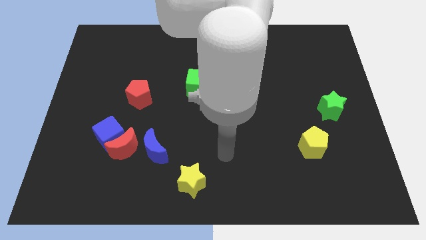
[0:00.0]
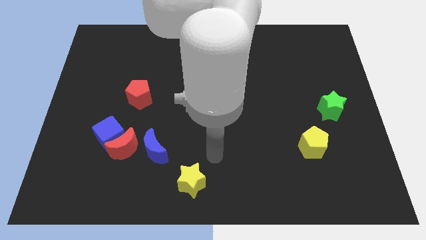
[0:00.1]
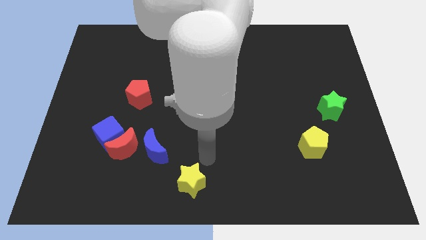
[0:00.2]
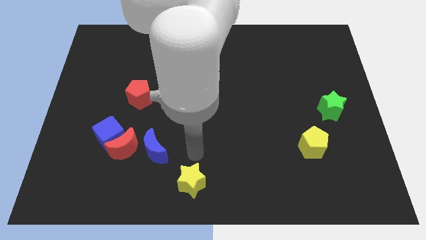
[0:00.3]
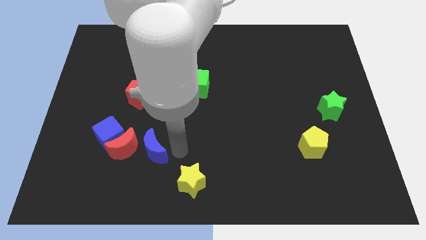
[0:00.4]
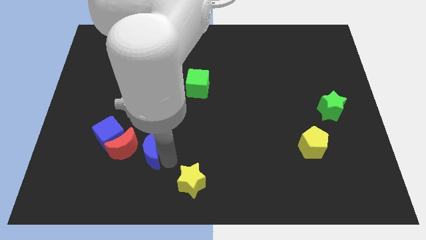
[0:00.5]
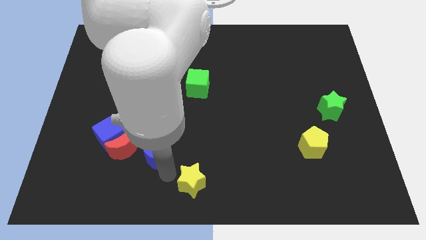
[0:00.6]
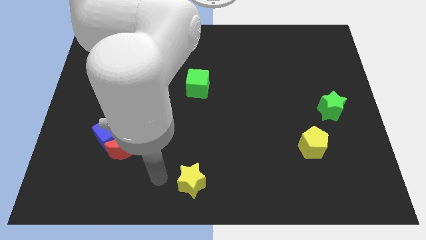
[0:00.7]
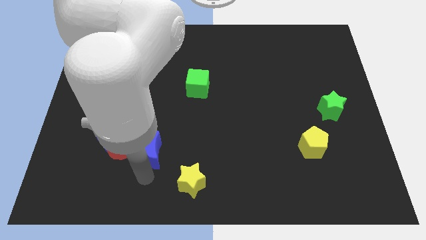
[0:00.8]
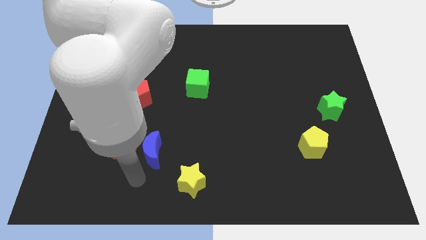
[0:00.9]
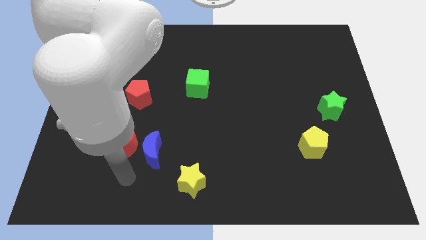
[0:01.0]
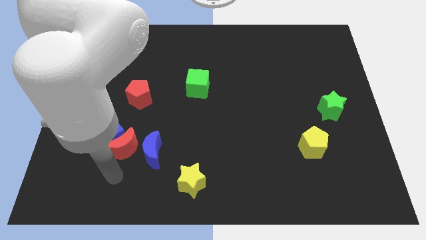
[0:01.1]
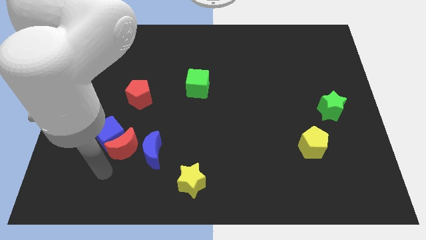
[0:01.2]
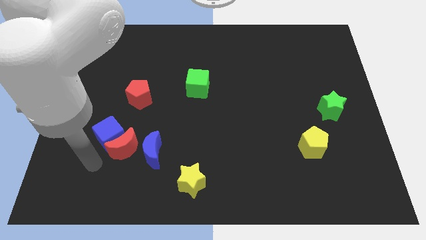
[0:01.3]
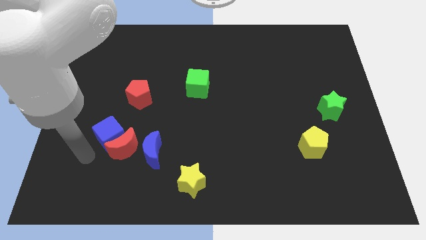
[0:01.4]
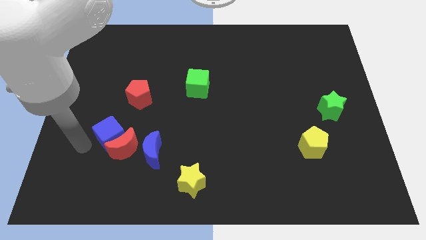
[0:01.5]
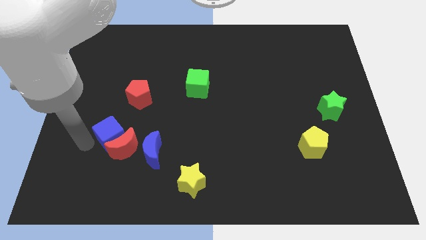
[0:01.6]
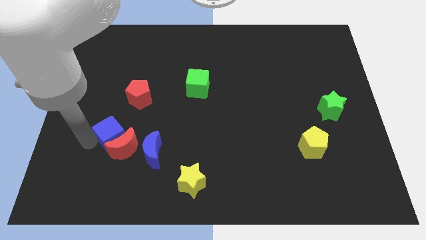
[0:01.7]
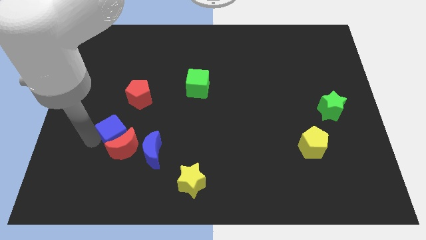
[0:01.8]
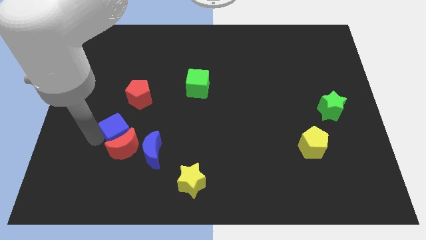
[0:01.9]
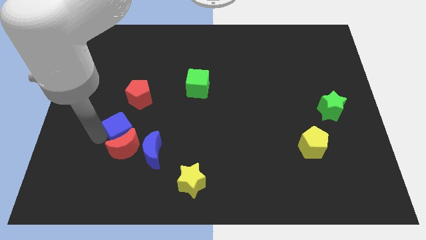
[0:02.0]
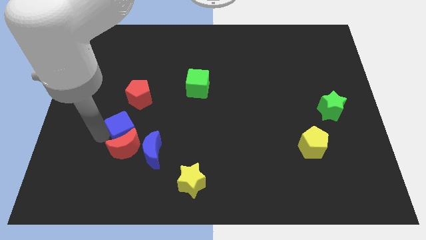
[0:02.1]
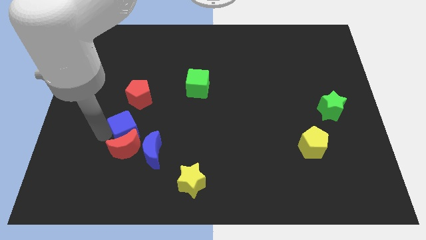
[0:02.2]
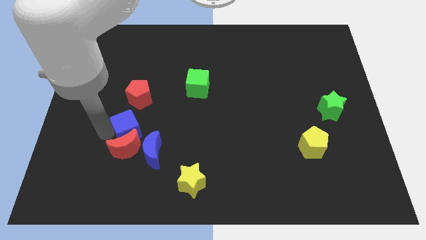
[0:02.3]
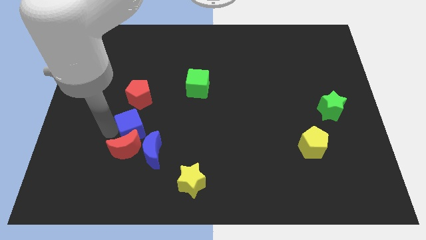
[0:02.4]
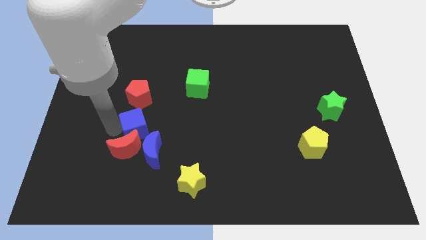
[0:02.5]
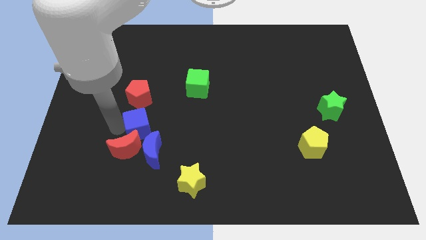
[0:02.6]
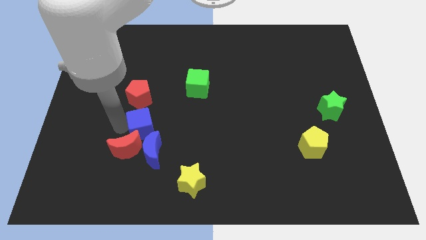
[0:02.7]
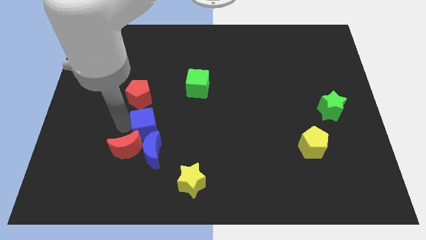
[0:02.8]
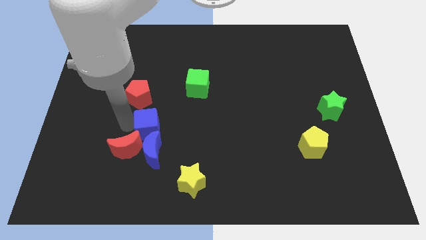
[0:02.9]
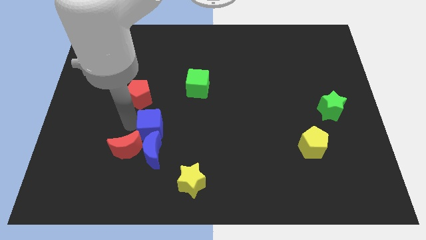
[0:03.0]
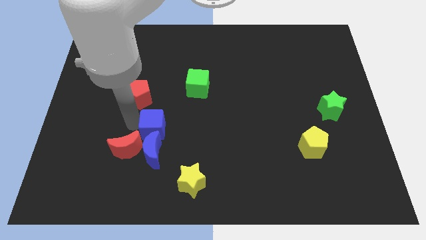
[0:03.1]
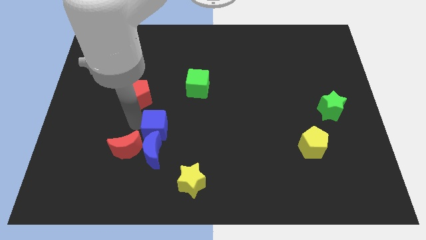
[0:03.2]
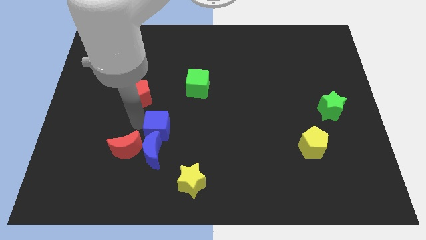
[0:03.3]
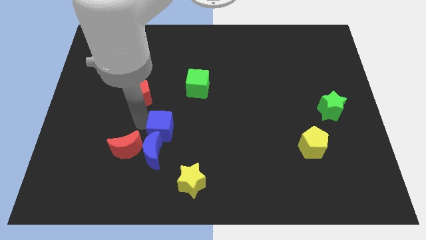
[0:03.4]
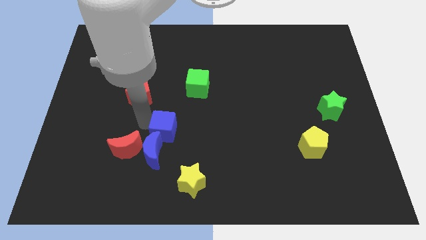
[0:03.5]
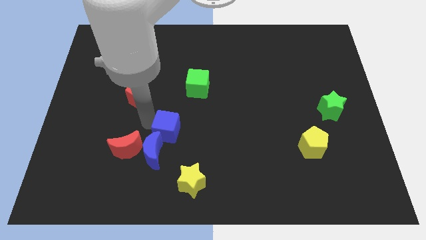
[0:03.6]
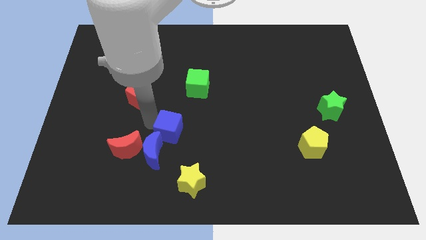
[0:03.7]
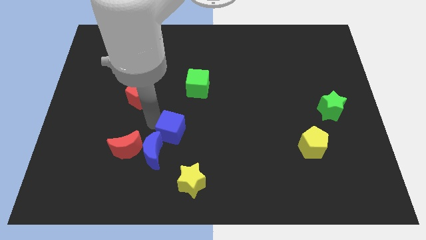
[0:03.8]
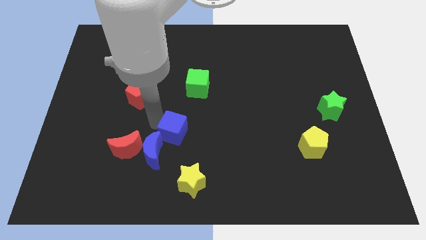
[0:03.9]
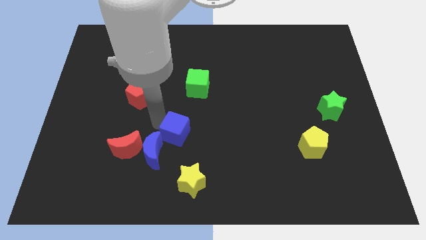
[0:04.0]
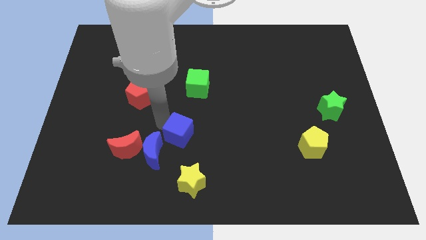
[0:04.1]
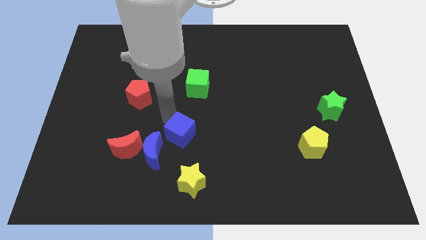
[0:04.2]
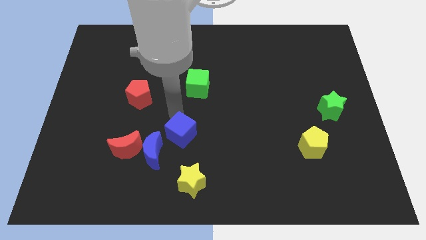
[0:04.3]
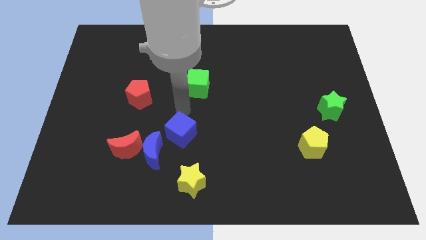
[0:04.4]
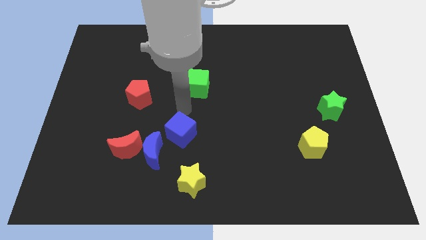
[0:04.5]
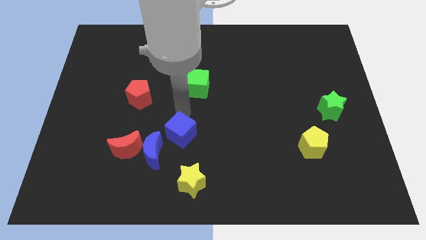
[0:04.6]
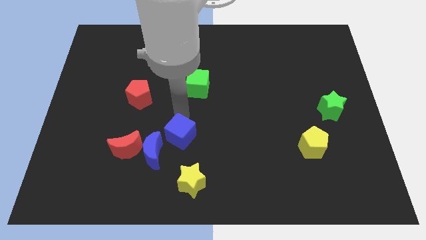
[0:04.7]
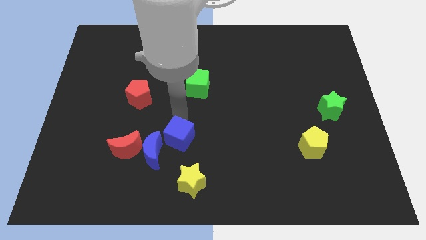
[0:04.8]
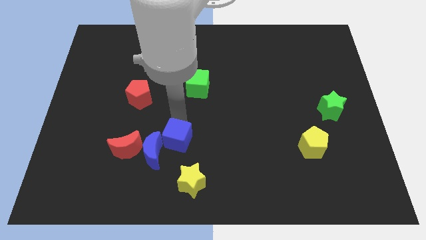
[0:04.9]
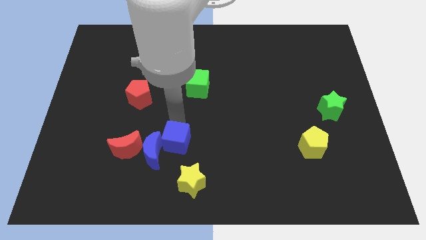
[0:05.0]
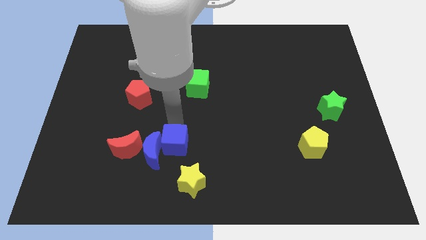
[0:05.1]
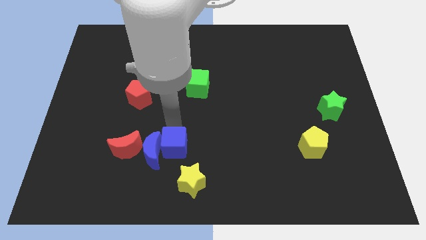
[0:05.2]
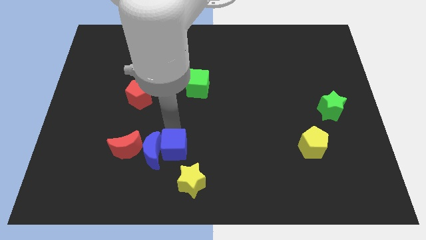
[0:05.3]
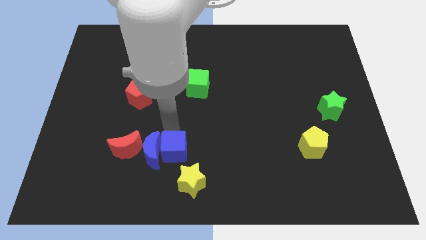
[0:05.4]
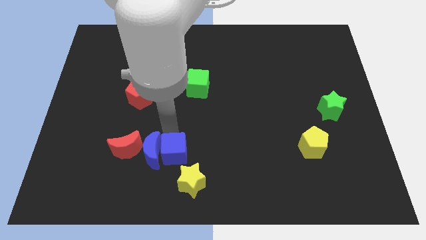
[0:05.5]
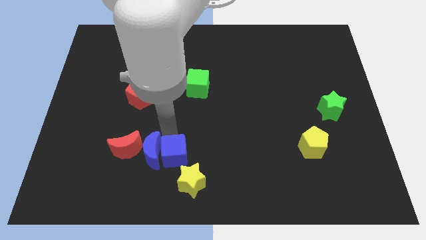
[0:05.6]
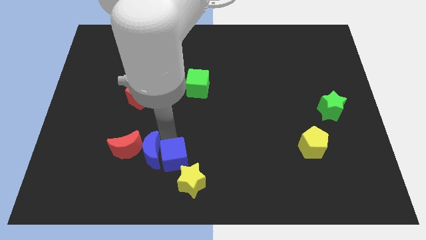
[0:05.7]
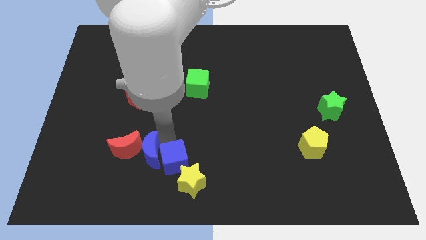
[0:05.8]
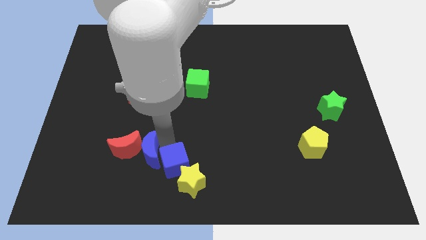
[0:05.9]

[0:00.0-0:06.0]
move the blue cube close to the yellow star

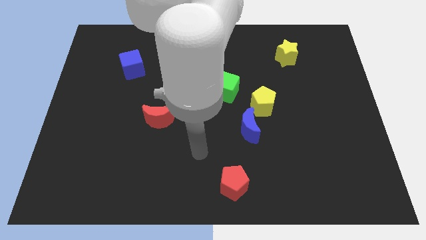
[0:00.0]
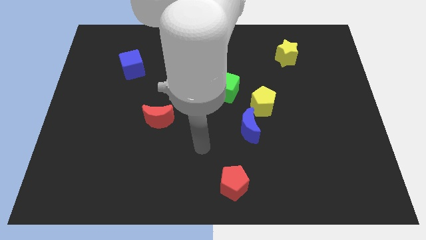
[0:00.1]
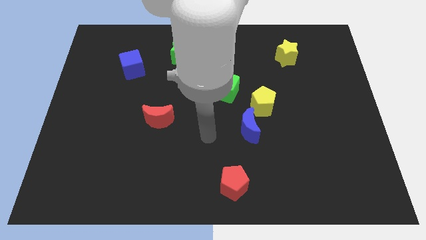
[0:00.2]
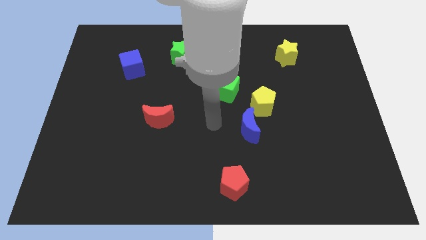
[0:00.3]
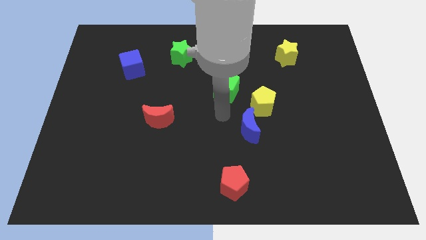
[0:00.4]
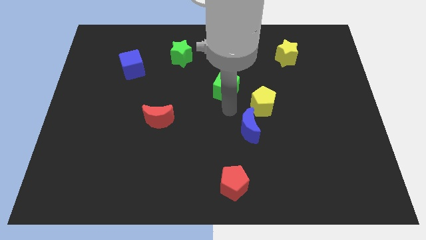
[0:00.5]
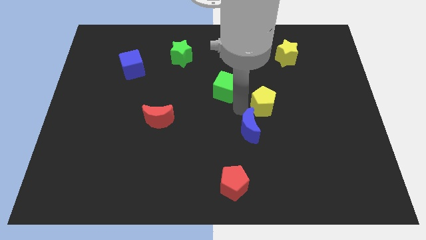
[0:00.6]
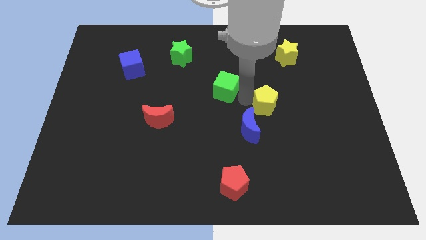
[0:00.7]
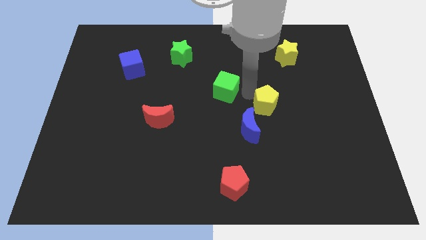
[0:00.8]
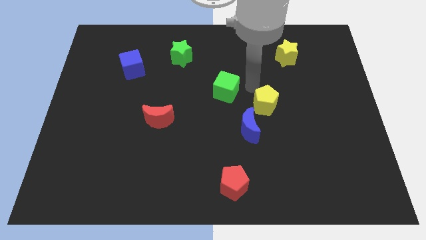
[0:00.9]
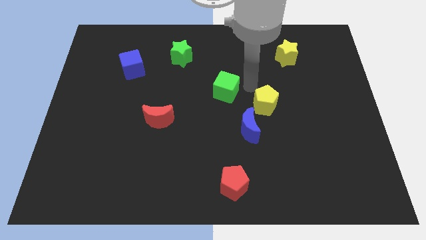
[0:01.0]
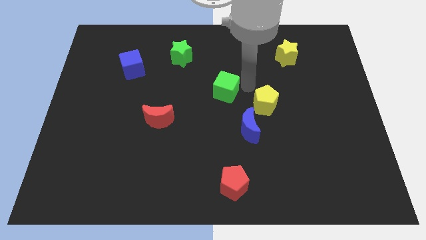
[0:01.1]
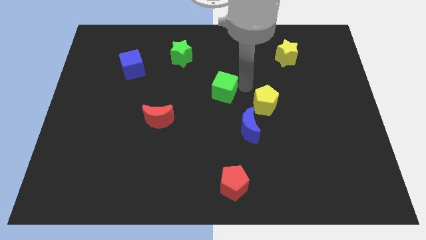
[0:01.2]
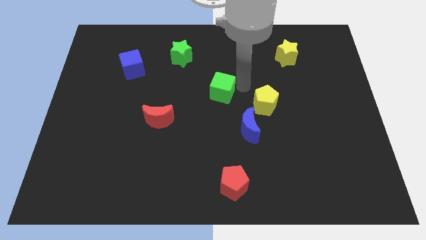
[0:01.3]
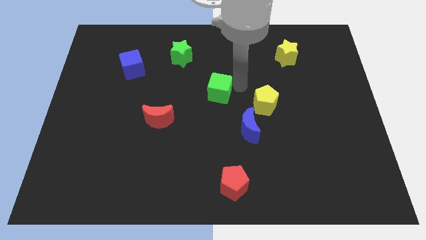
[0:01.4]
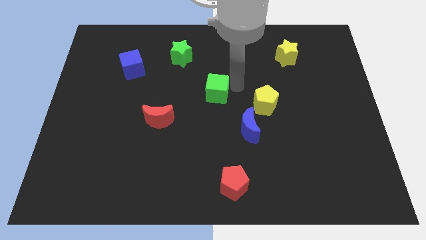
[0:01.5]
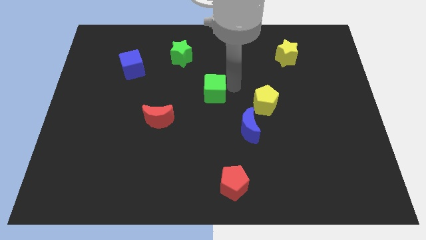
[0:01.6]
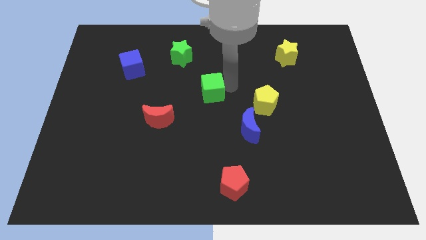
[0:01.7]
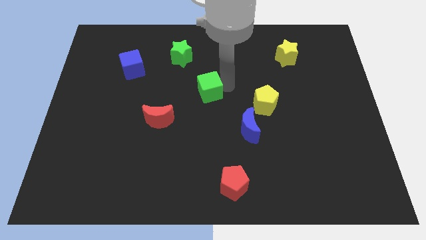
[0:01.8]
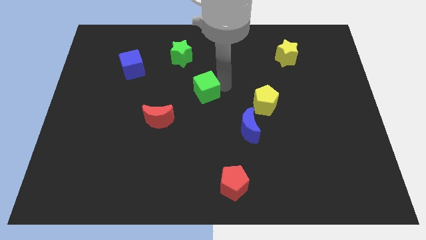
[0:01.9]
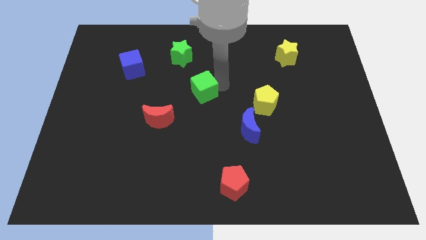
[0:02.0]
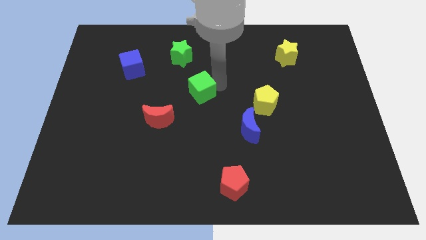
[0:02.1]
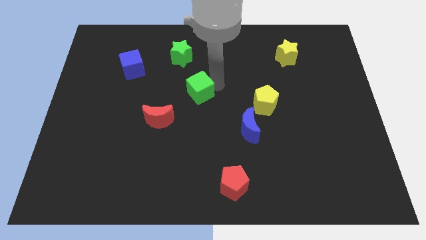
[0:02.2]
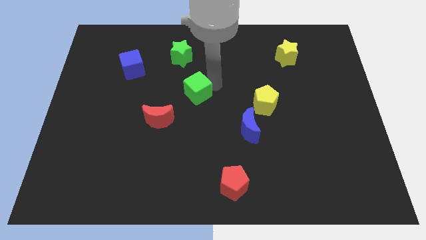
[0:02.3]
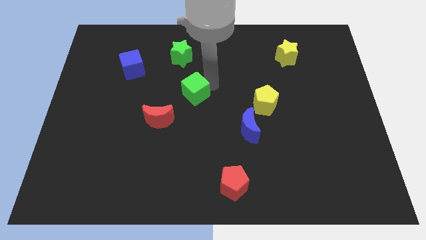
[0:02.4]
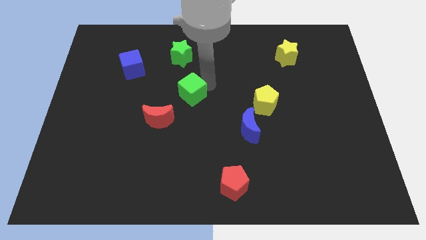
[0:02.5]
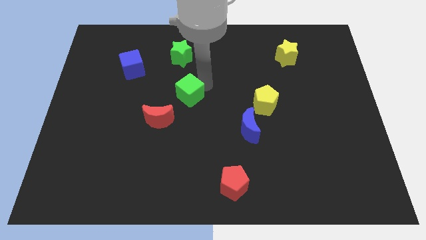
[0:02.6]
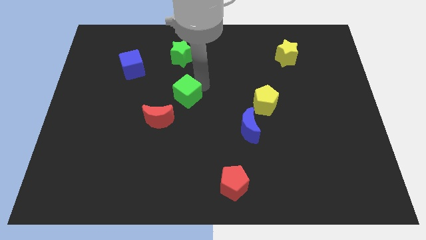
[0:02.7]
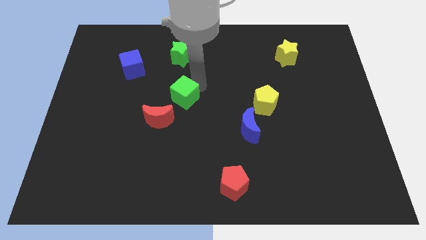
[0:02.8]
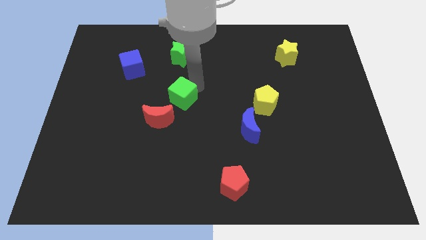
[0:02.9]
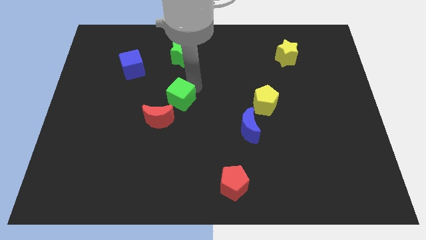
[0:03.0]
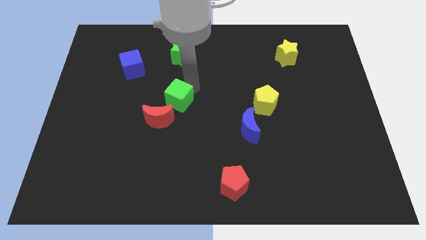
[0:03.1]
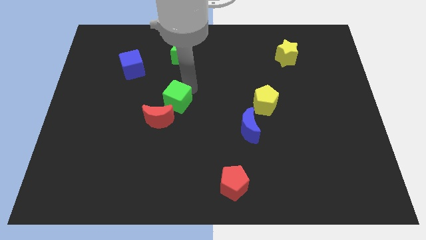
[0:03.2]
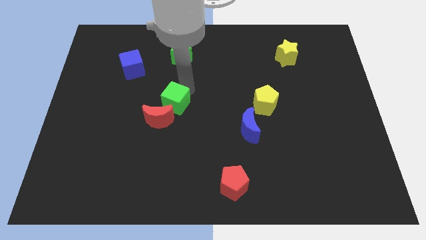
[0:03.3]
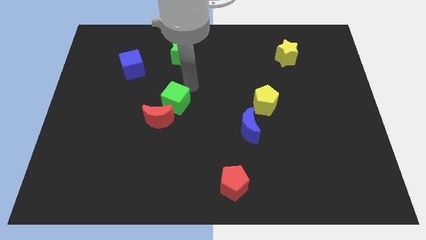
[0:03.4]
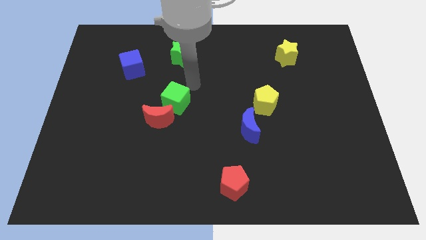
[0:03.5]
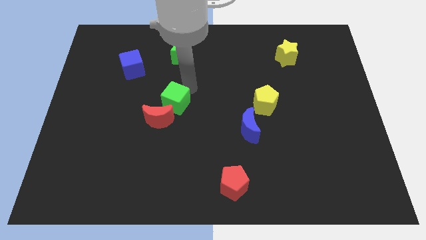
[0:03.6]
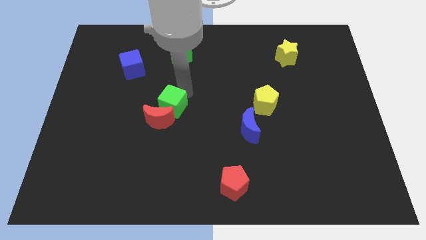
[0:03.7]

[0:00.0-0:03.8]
push the green cube to the red moon
